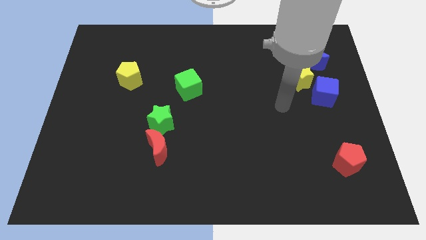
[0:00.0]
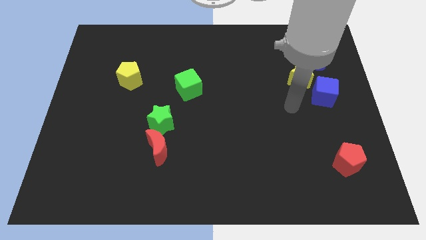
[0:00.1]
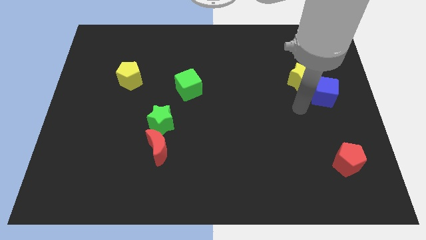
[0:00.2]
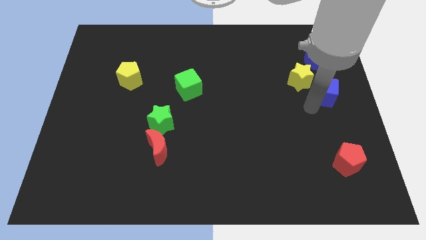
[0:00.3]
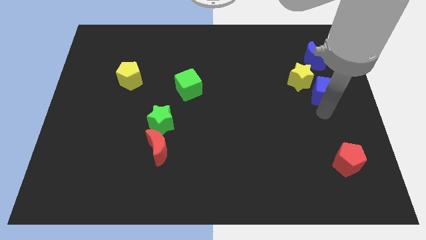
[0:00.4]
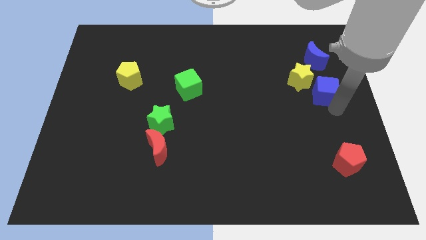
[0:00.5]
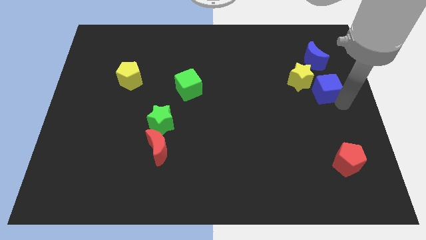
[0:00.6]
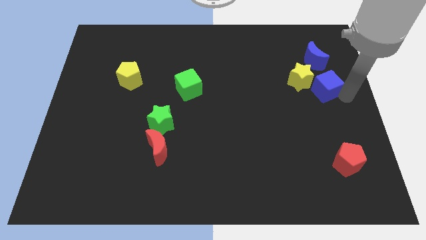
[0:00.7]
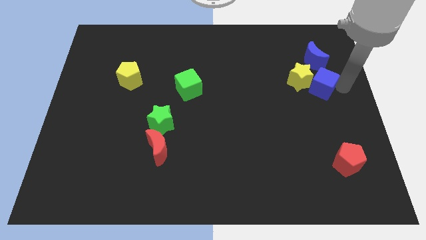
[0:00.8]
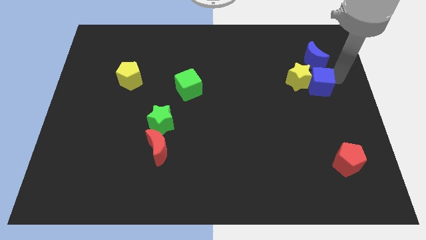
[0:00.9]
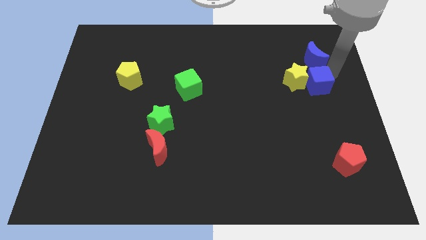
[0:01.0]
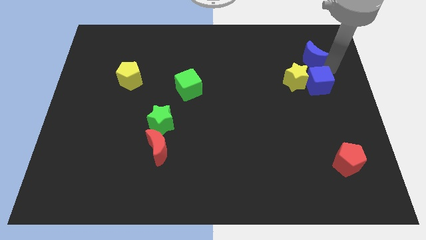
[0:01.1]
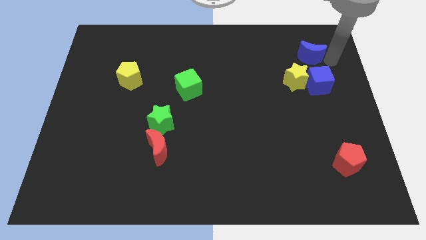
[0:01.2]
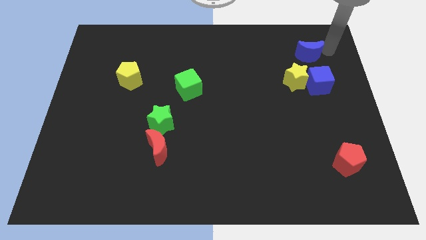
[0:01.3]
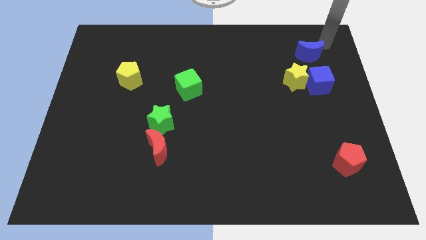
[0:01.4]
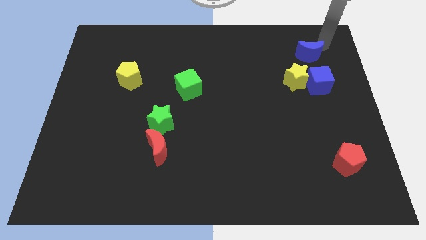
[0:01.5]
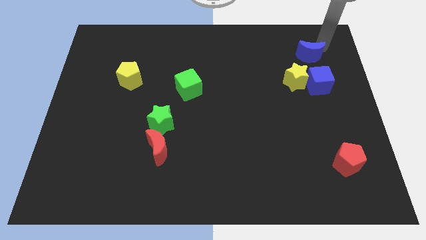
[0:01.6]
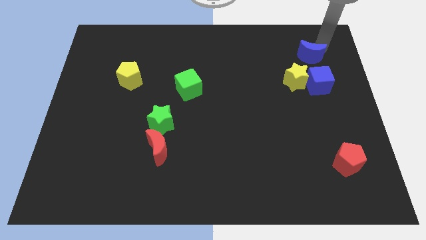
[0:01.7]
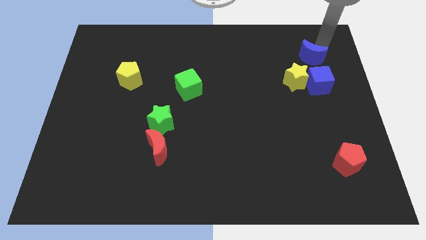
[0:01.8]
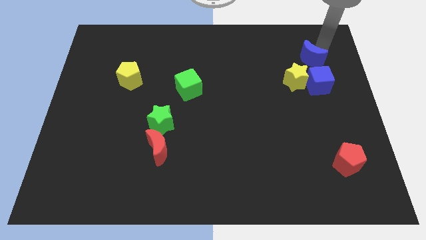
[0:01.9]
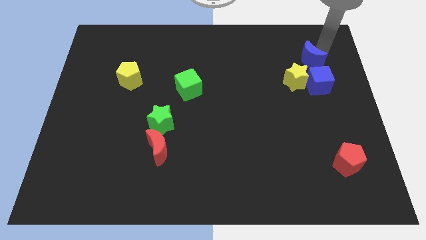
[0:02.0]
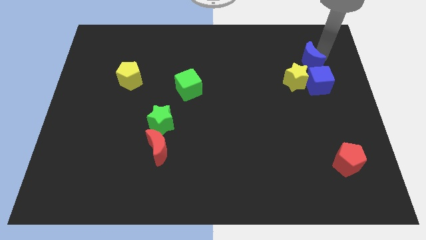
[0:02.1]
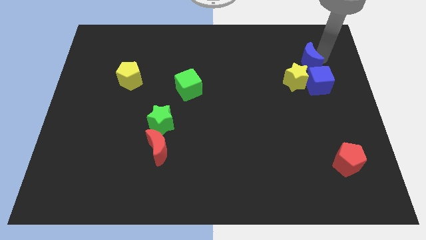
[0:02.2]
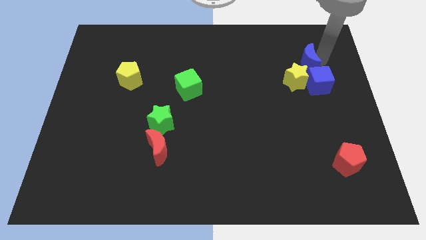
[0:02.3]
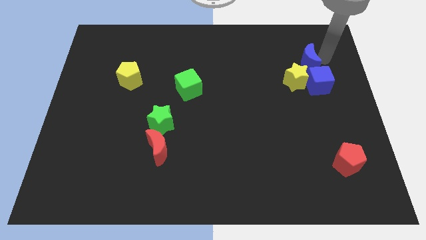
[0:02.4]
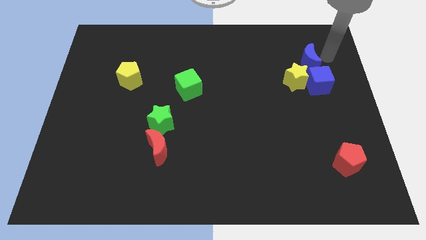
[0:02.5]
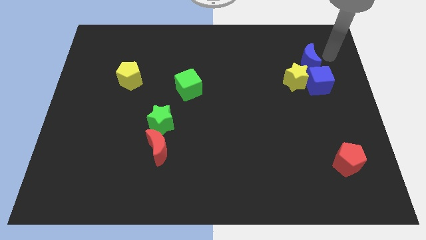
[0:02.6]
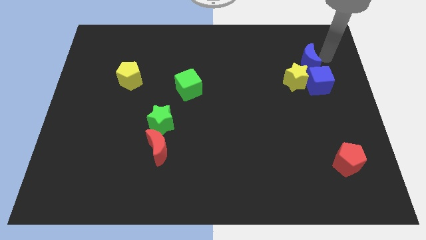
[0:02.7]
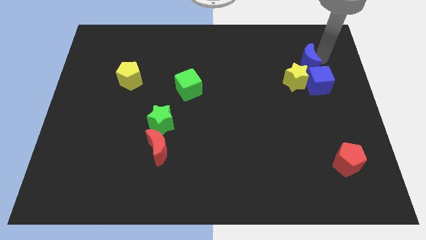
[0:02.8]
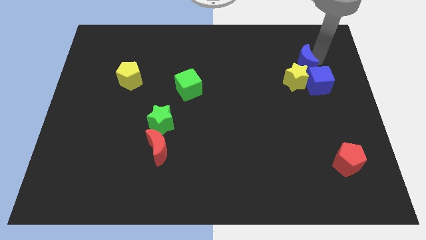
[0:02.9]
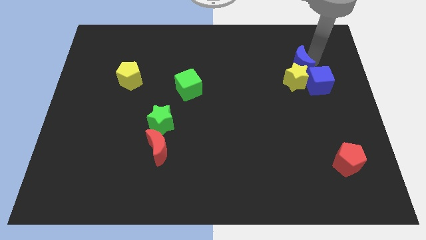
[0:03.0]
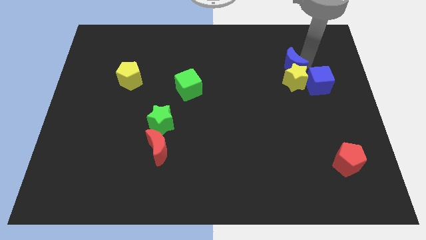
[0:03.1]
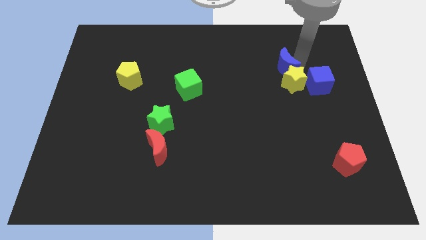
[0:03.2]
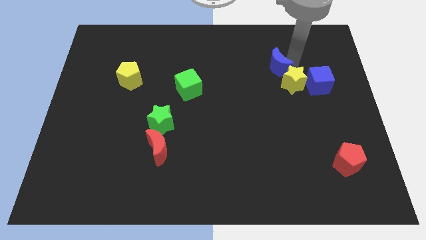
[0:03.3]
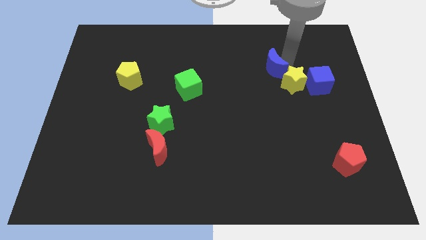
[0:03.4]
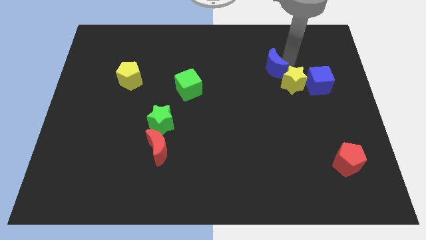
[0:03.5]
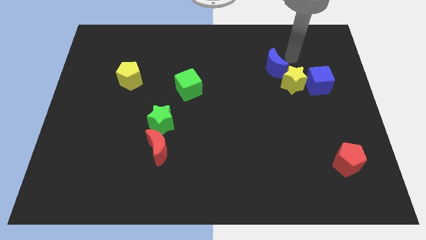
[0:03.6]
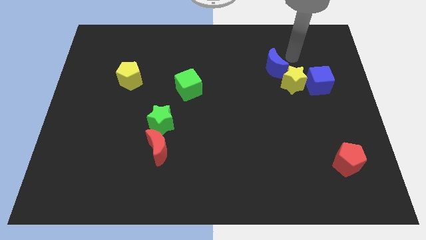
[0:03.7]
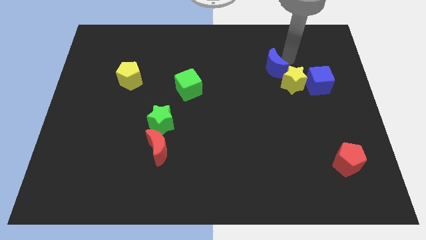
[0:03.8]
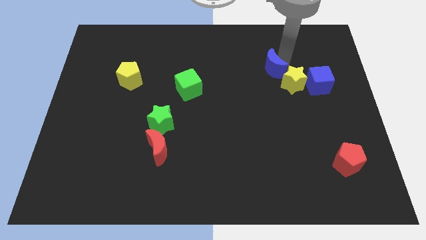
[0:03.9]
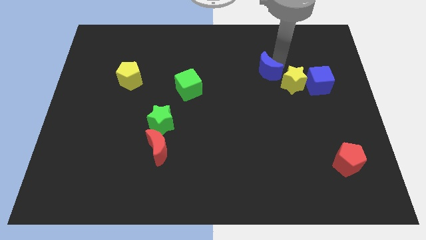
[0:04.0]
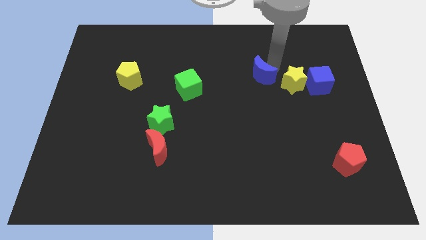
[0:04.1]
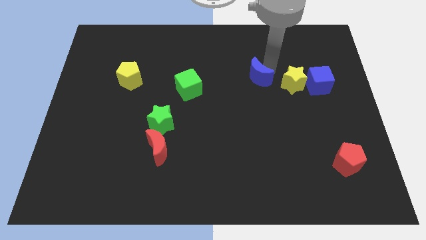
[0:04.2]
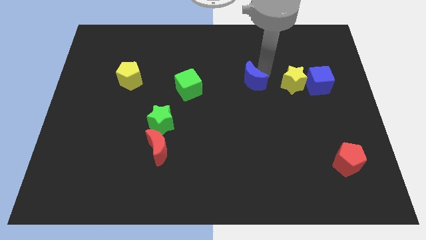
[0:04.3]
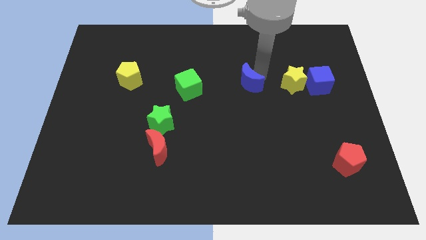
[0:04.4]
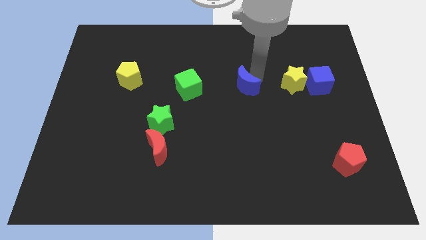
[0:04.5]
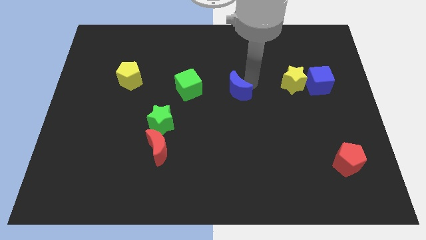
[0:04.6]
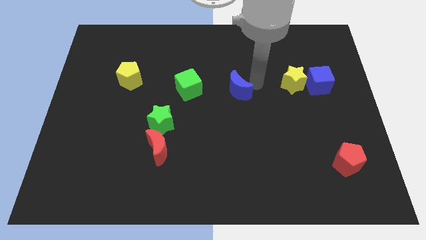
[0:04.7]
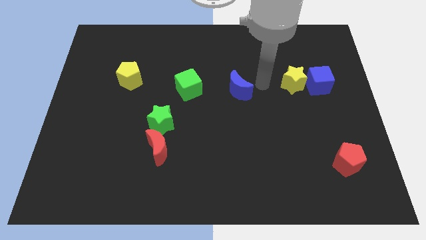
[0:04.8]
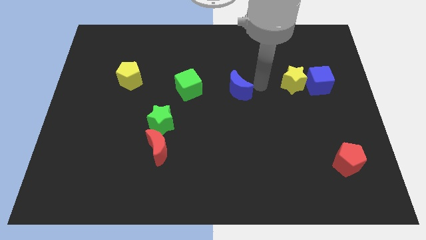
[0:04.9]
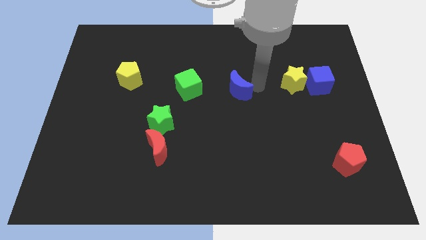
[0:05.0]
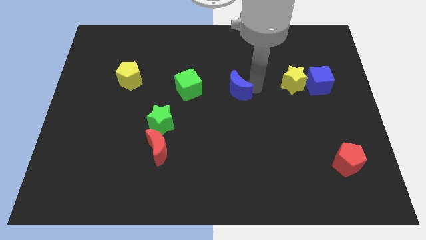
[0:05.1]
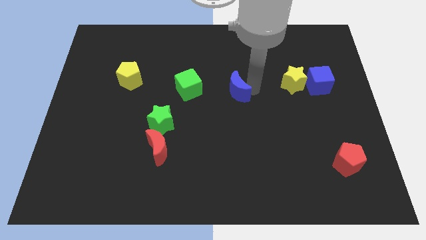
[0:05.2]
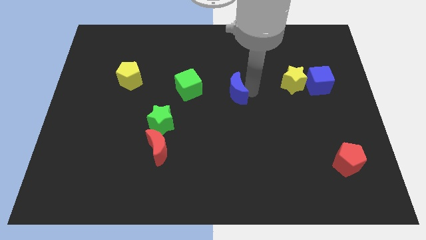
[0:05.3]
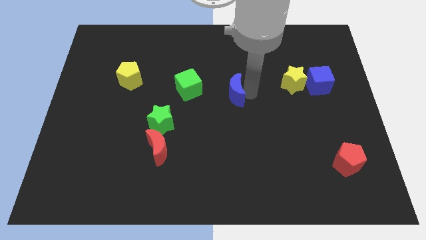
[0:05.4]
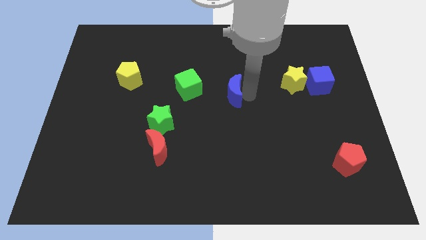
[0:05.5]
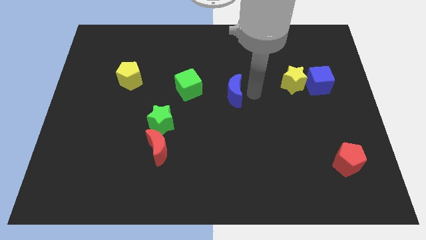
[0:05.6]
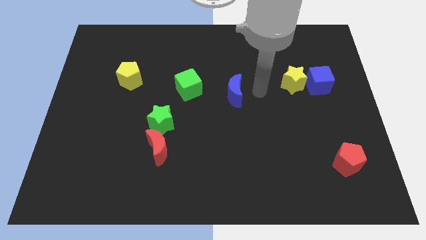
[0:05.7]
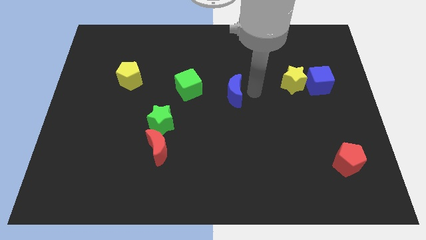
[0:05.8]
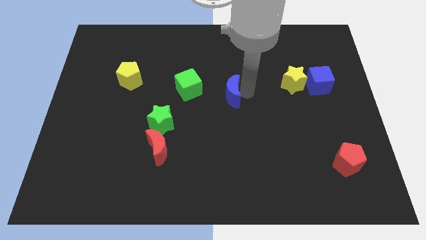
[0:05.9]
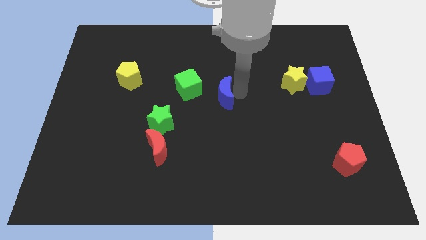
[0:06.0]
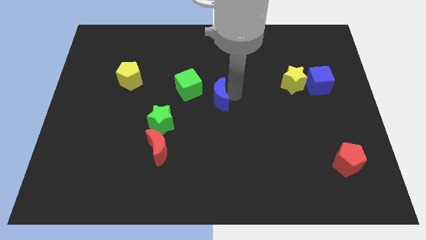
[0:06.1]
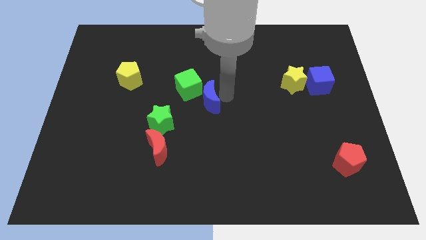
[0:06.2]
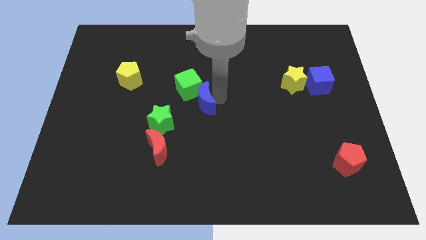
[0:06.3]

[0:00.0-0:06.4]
move the blue moon to the top right side of the green star

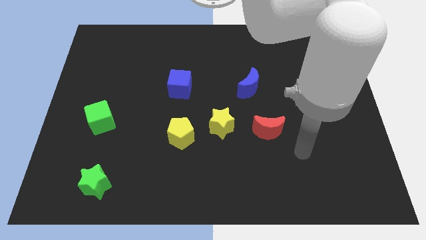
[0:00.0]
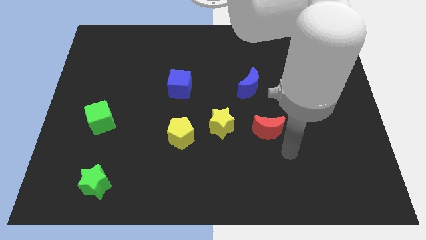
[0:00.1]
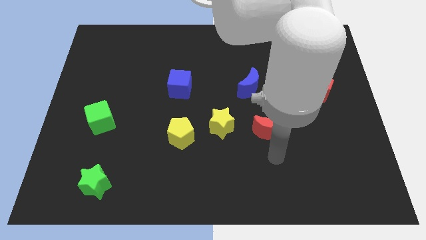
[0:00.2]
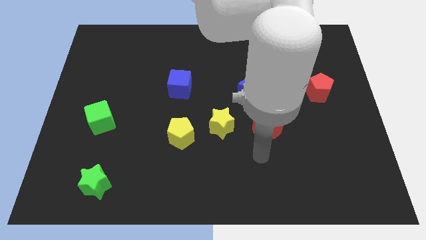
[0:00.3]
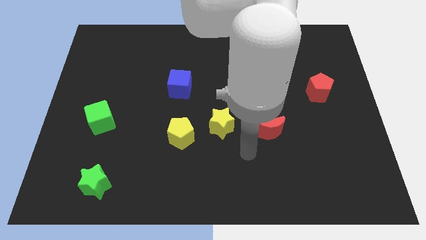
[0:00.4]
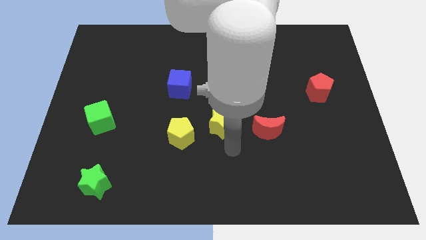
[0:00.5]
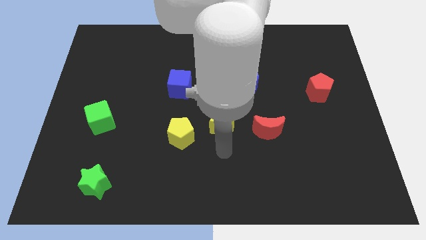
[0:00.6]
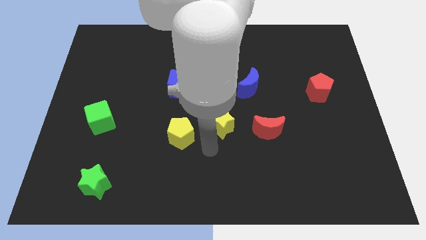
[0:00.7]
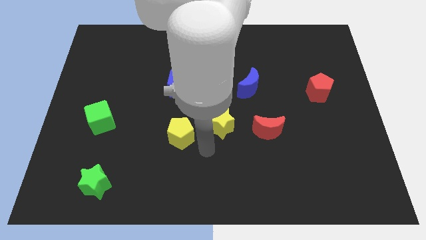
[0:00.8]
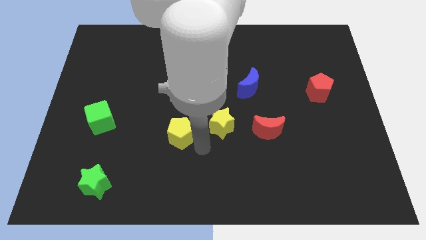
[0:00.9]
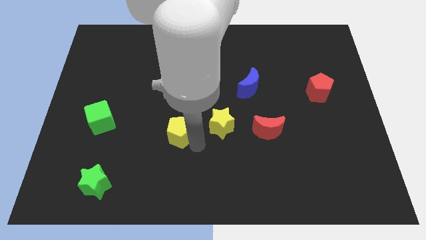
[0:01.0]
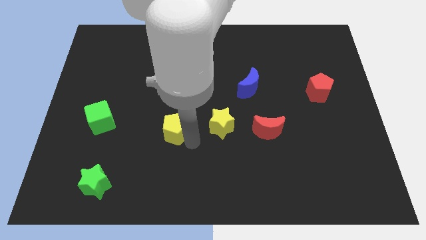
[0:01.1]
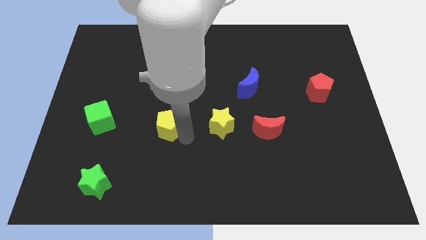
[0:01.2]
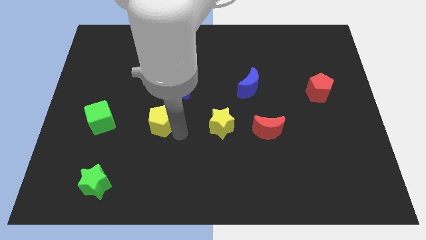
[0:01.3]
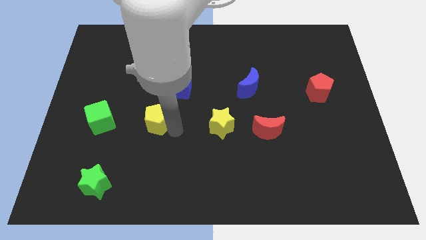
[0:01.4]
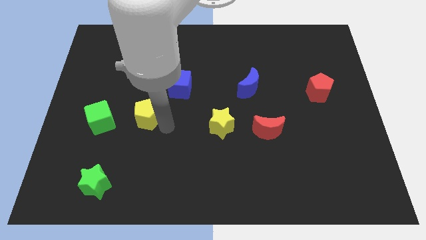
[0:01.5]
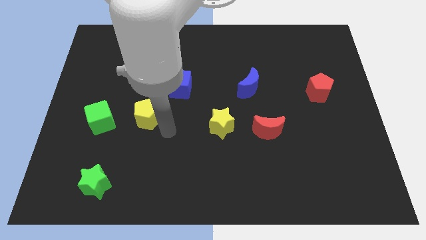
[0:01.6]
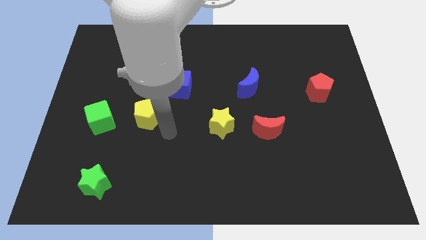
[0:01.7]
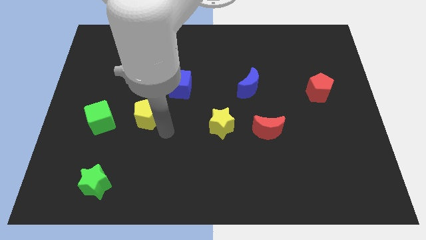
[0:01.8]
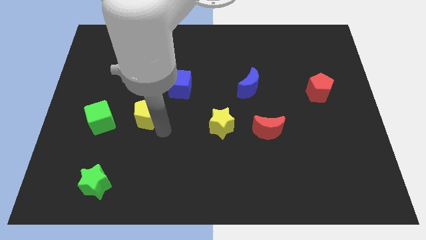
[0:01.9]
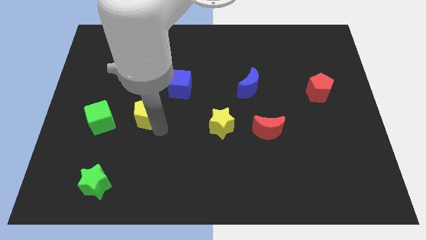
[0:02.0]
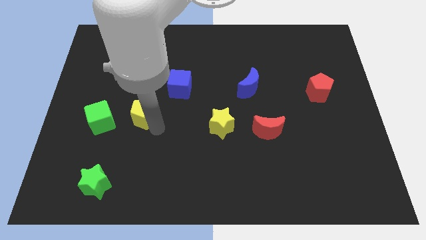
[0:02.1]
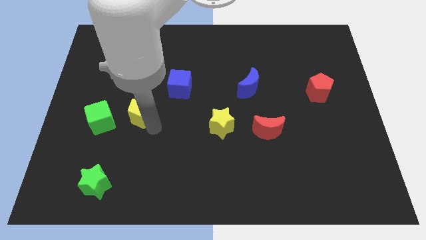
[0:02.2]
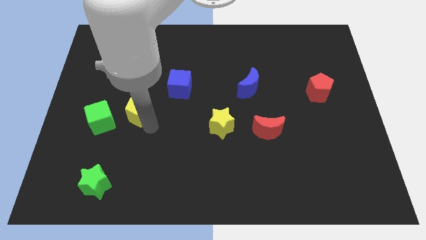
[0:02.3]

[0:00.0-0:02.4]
slide the yellow pentagon diagonally up and to the right of the green cube
